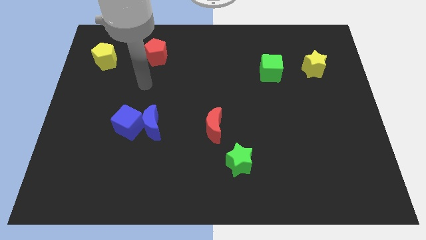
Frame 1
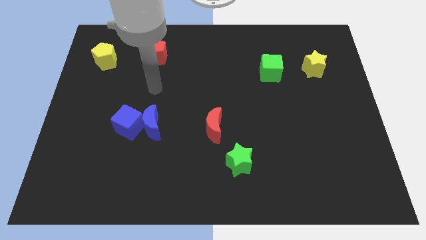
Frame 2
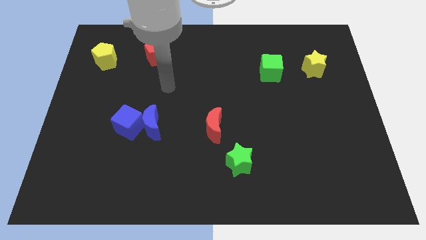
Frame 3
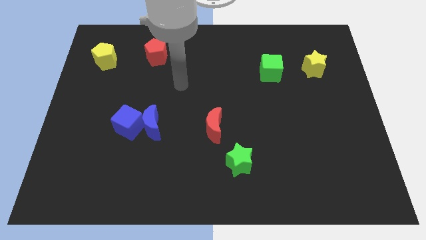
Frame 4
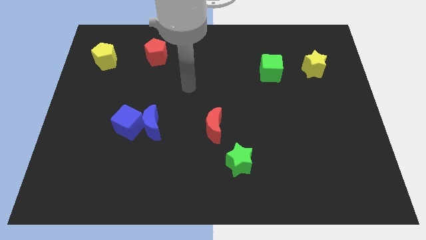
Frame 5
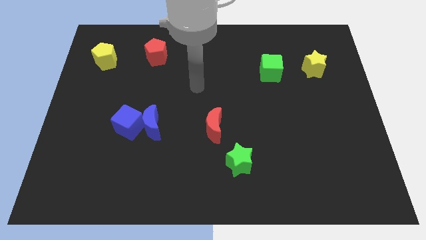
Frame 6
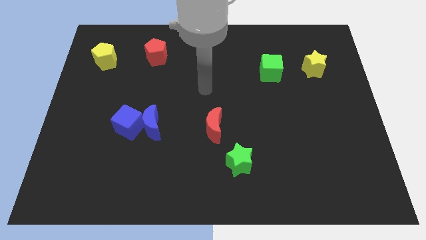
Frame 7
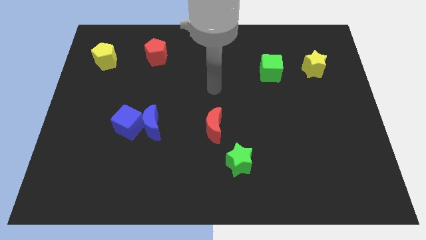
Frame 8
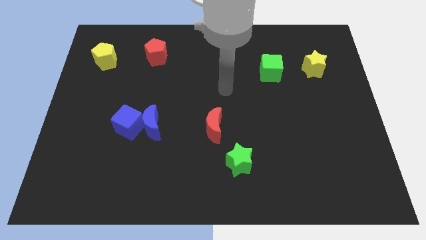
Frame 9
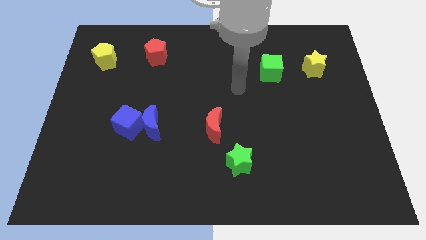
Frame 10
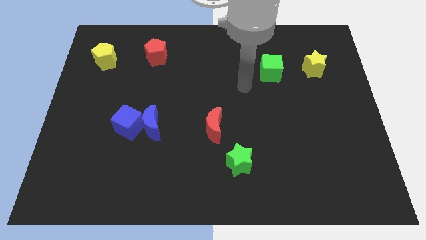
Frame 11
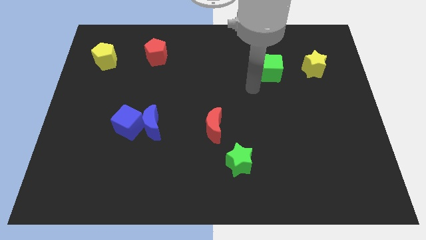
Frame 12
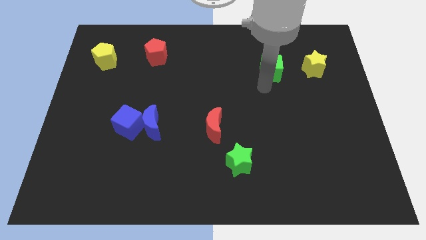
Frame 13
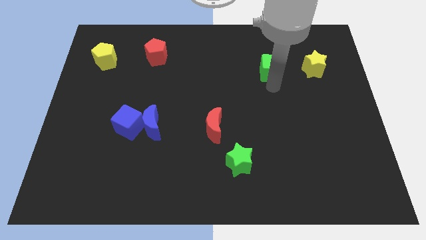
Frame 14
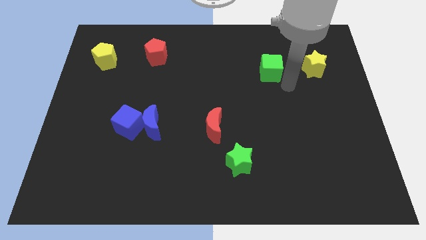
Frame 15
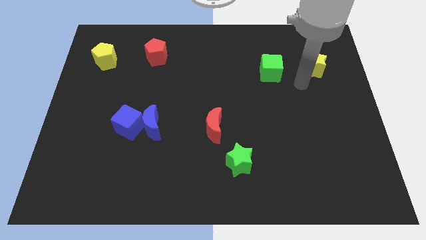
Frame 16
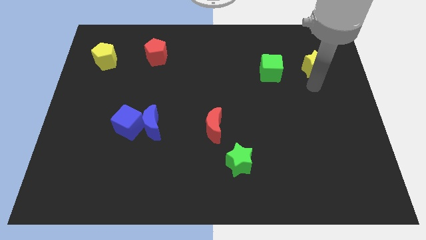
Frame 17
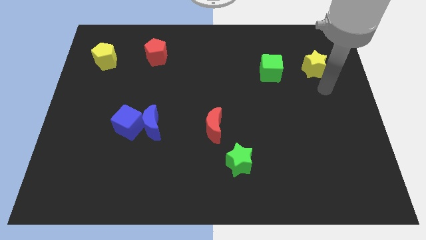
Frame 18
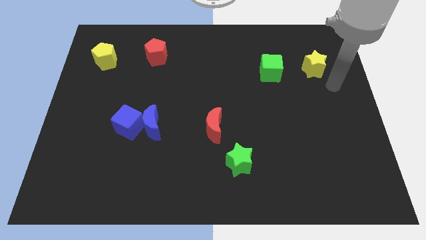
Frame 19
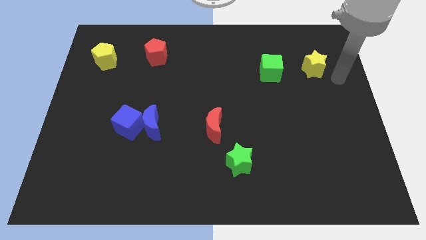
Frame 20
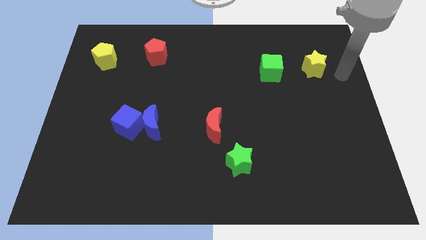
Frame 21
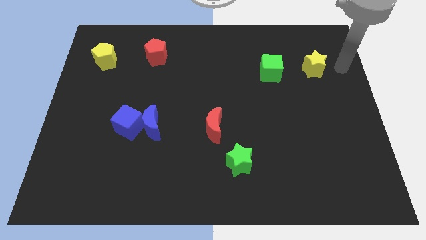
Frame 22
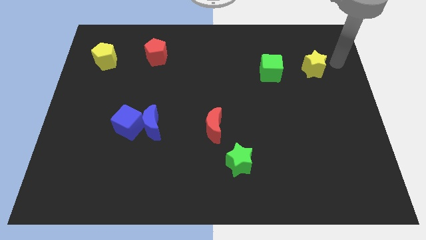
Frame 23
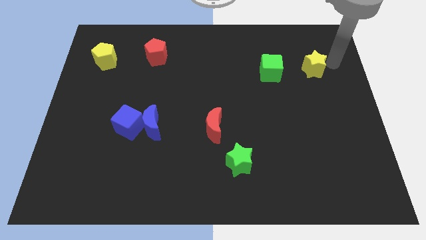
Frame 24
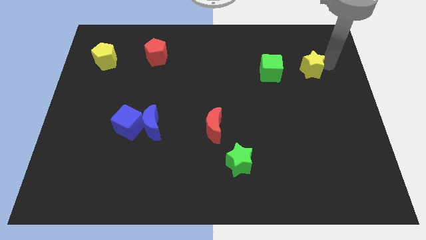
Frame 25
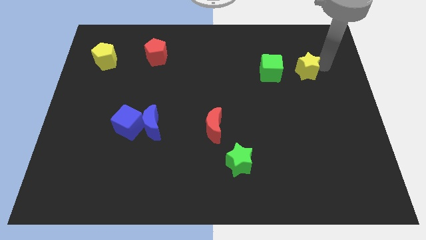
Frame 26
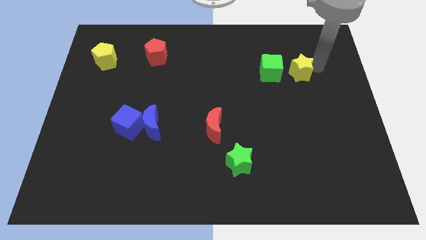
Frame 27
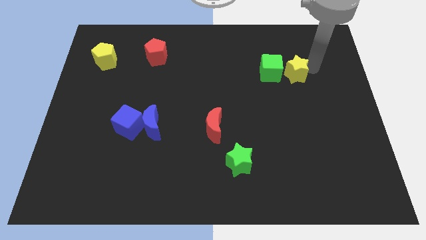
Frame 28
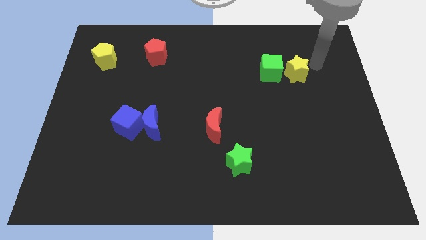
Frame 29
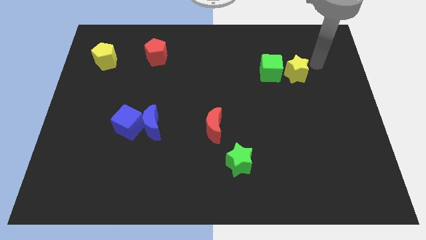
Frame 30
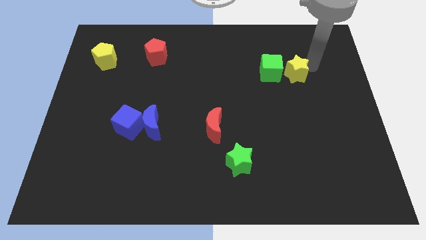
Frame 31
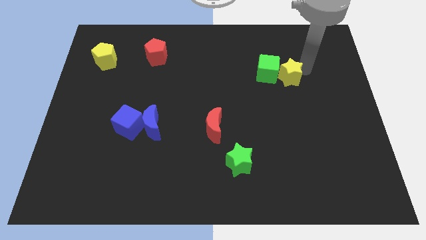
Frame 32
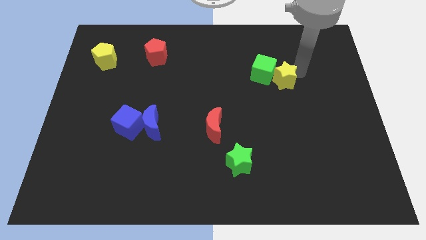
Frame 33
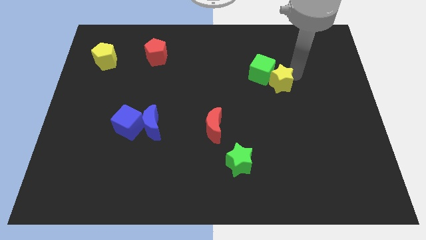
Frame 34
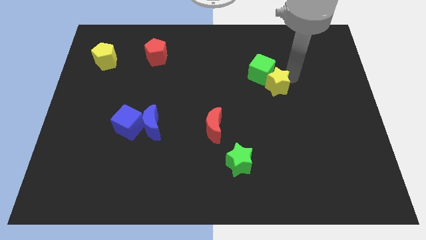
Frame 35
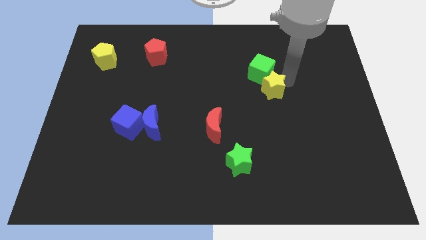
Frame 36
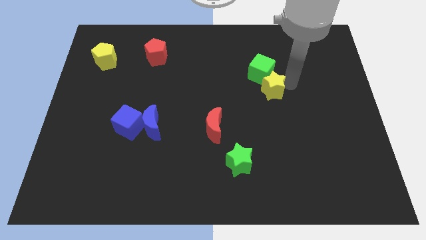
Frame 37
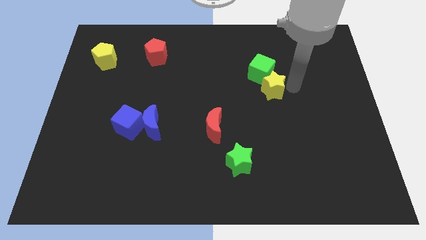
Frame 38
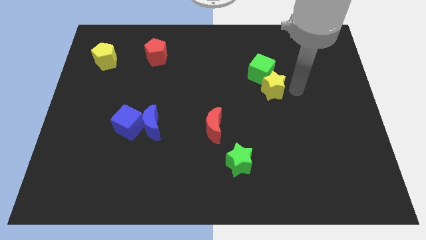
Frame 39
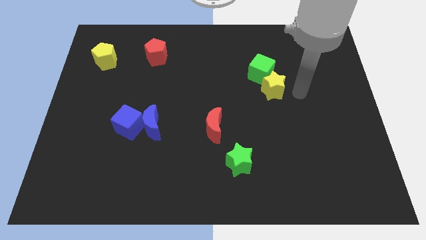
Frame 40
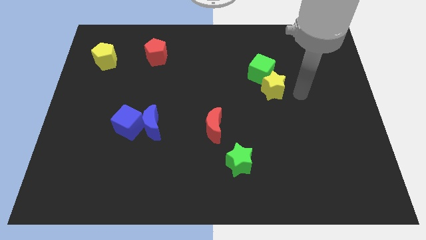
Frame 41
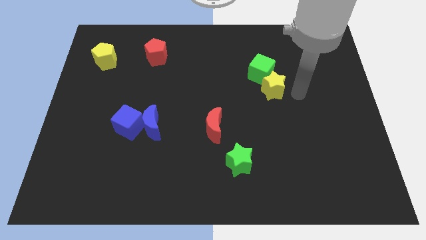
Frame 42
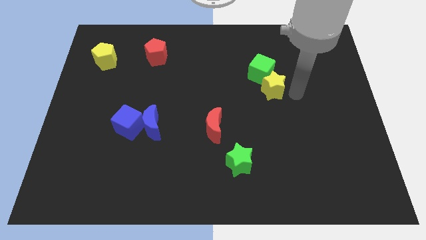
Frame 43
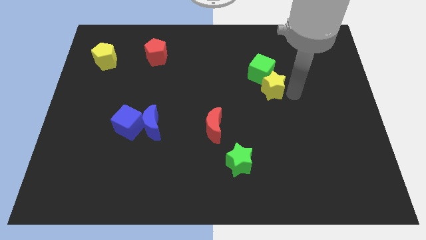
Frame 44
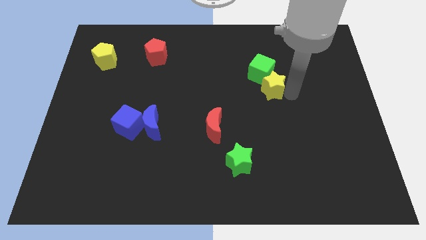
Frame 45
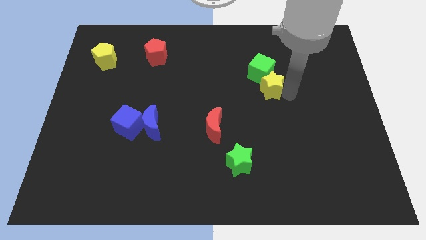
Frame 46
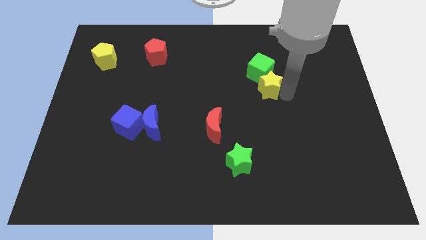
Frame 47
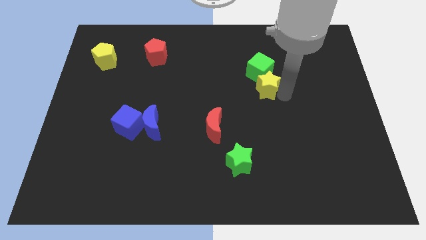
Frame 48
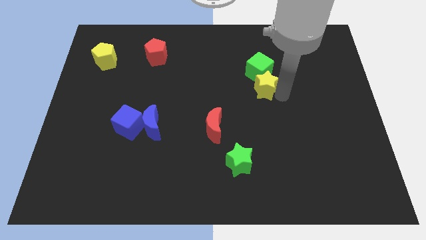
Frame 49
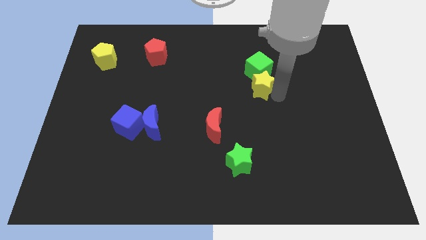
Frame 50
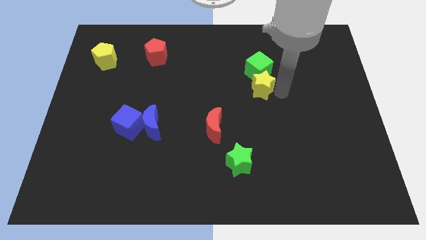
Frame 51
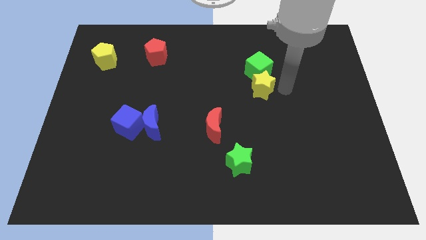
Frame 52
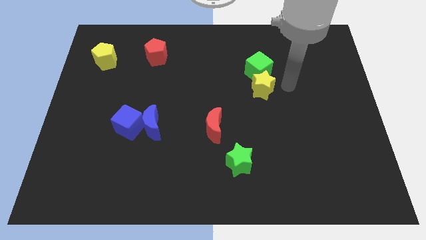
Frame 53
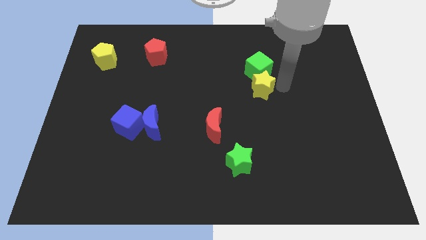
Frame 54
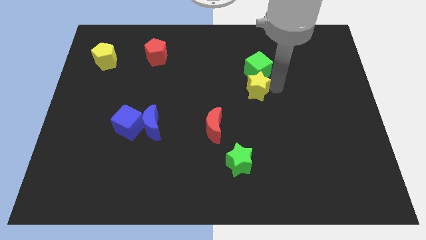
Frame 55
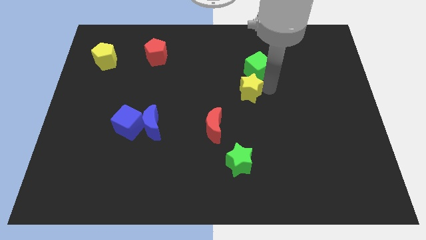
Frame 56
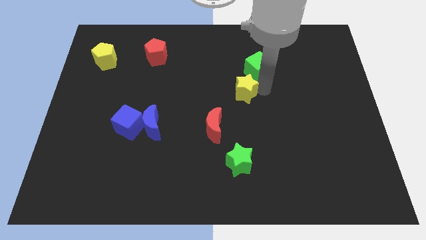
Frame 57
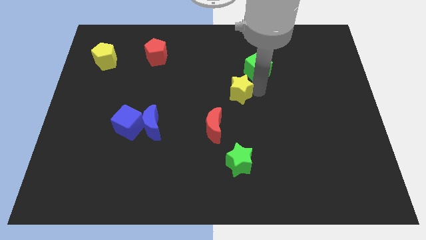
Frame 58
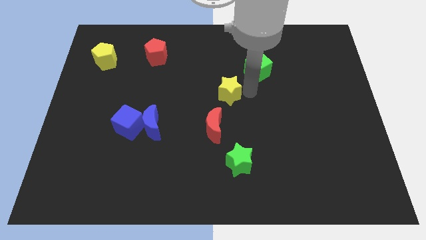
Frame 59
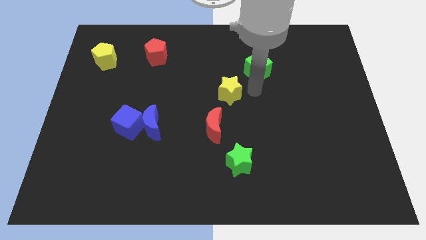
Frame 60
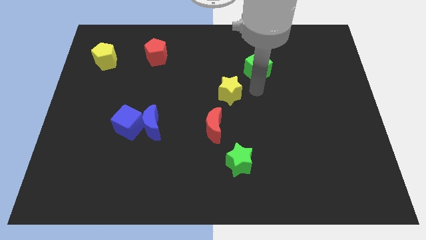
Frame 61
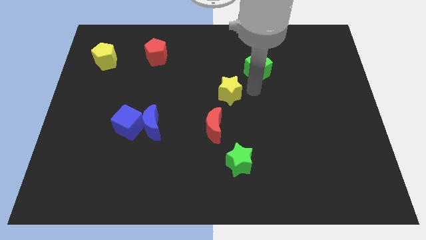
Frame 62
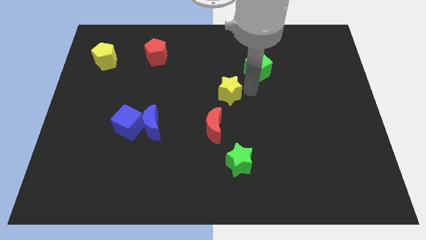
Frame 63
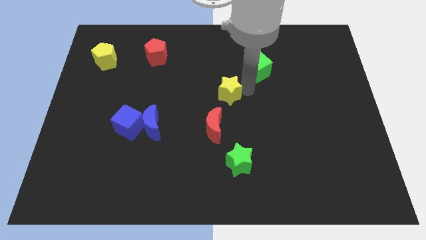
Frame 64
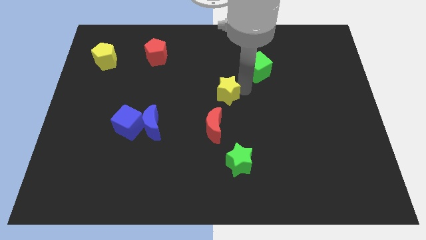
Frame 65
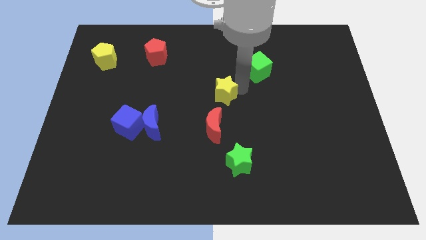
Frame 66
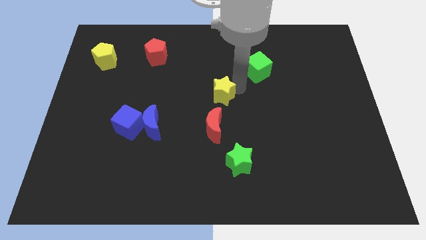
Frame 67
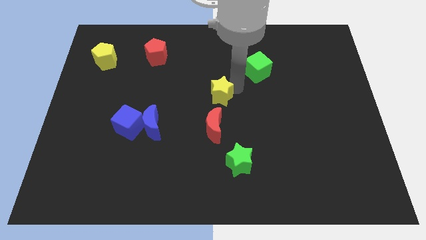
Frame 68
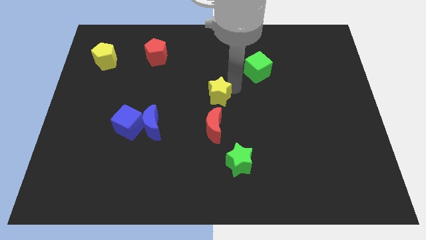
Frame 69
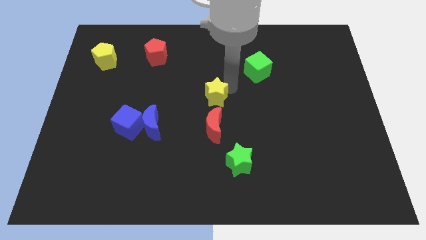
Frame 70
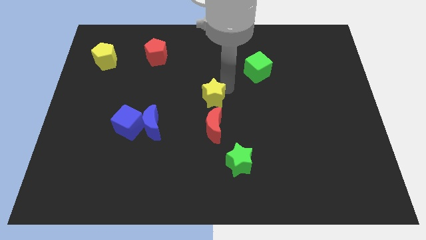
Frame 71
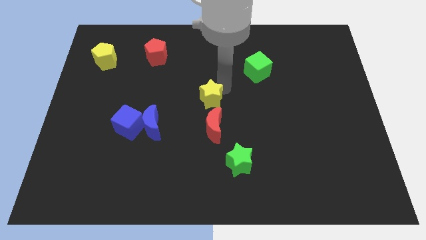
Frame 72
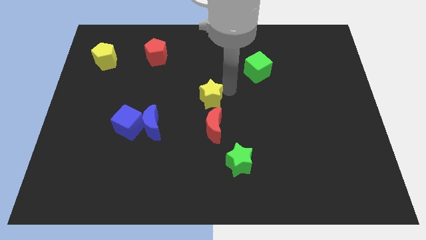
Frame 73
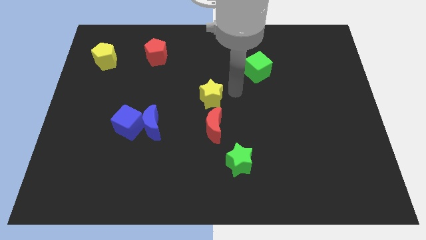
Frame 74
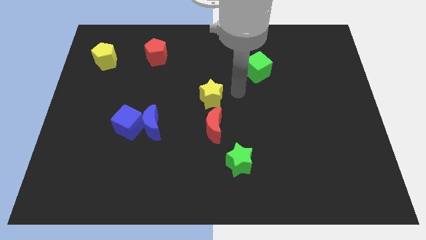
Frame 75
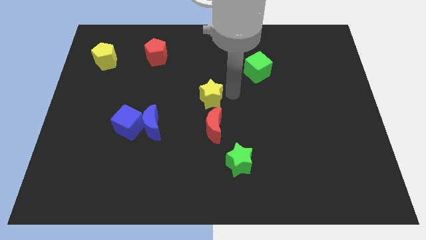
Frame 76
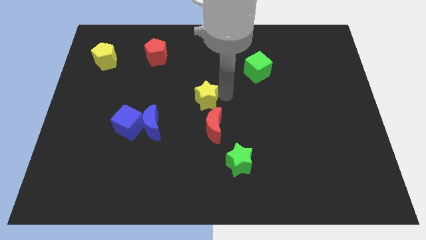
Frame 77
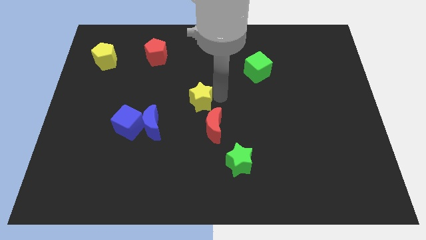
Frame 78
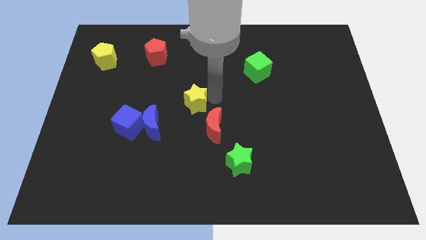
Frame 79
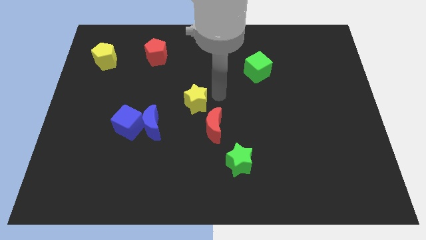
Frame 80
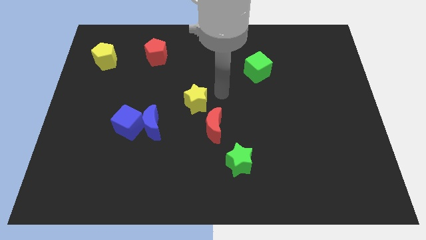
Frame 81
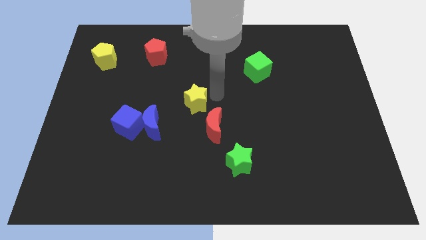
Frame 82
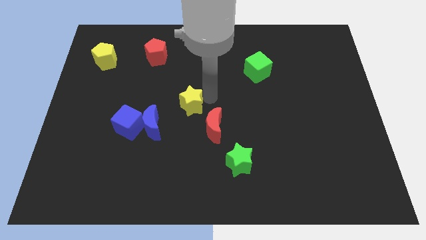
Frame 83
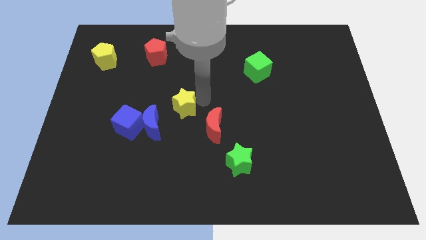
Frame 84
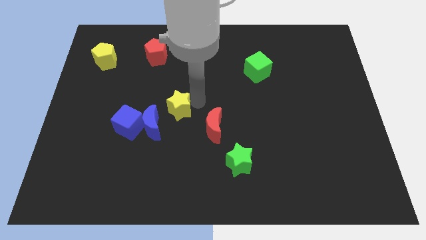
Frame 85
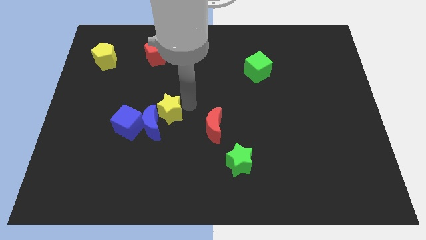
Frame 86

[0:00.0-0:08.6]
put the yellow star to the blue moon
